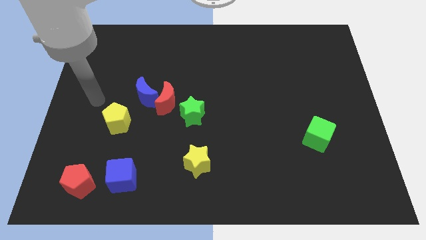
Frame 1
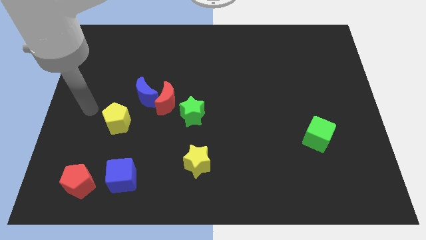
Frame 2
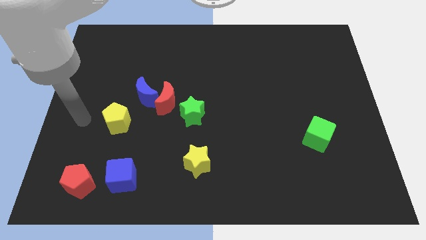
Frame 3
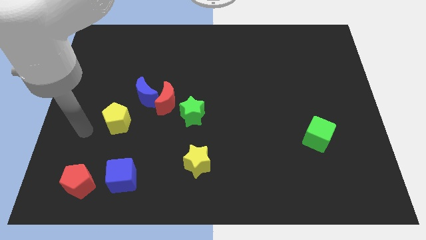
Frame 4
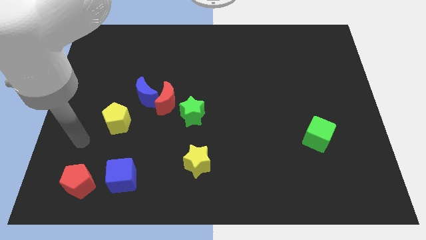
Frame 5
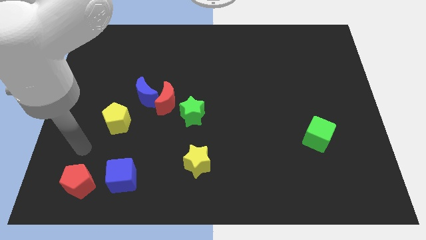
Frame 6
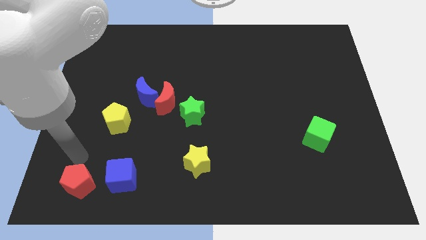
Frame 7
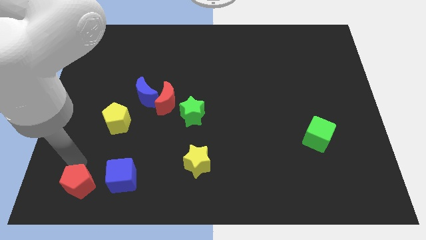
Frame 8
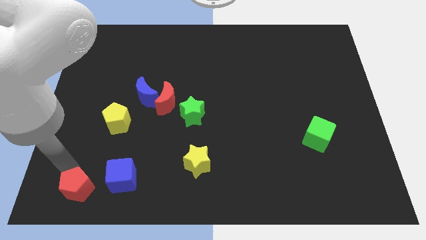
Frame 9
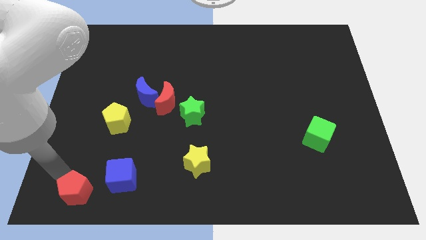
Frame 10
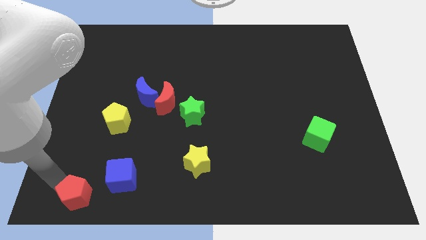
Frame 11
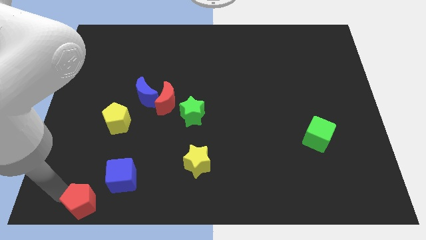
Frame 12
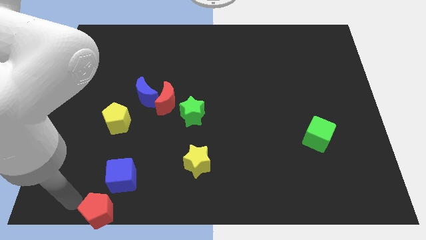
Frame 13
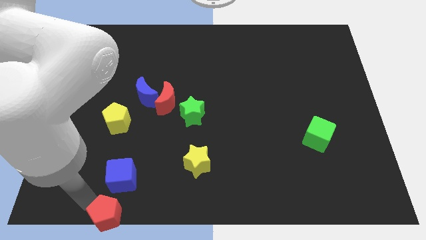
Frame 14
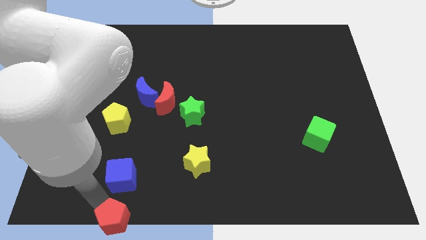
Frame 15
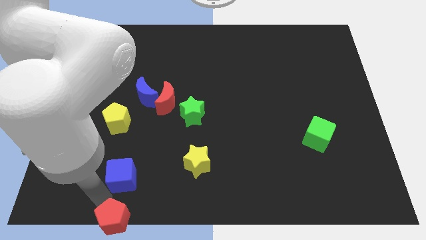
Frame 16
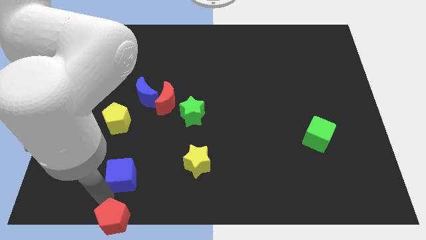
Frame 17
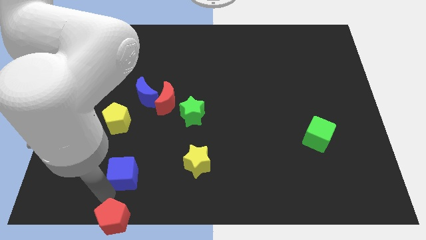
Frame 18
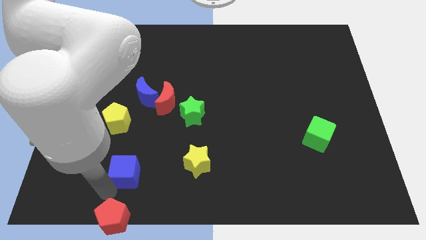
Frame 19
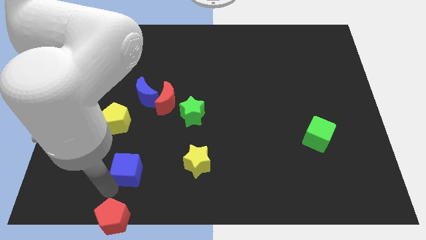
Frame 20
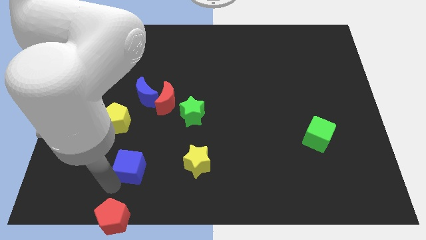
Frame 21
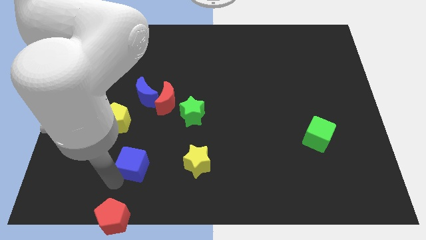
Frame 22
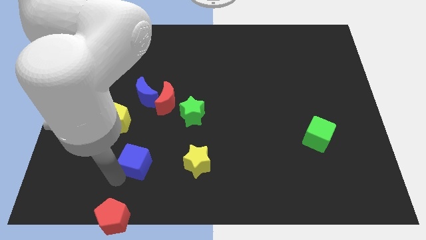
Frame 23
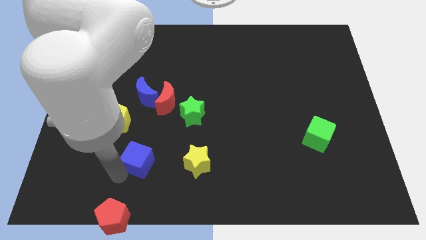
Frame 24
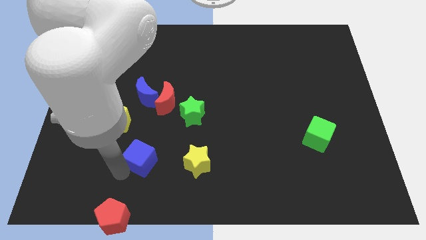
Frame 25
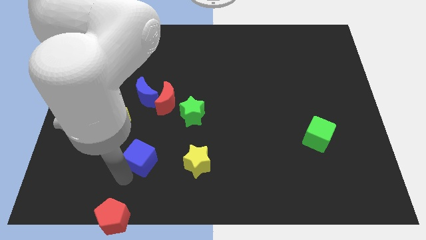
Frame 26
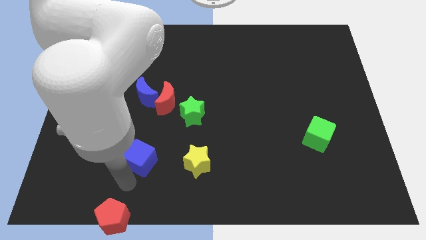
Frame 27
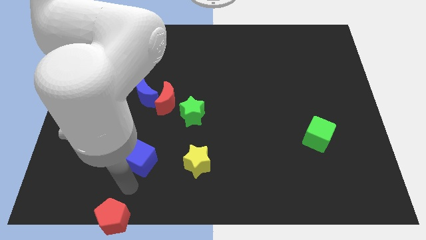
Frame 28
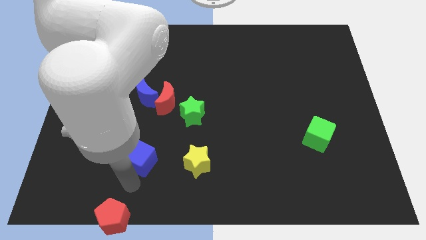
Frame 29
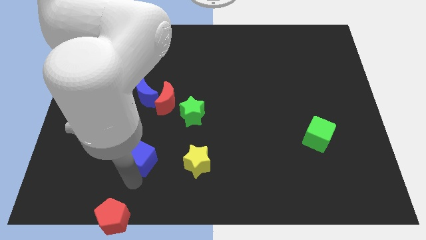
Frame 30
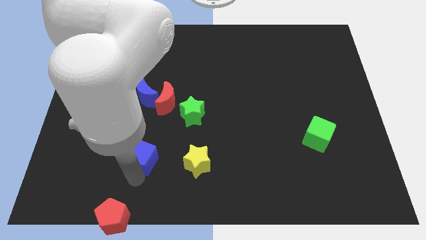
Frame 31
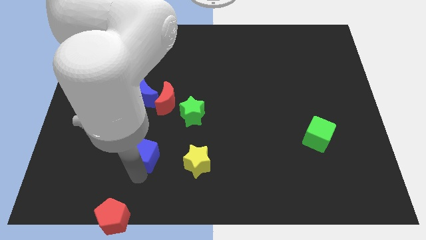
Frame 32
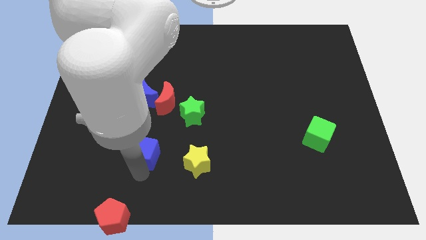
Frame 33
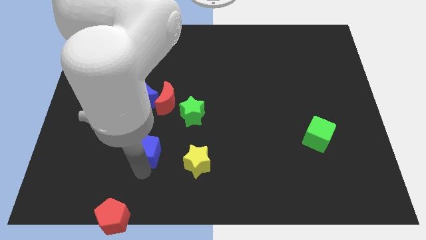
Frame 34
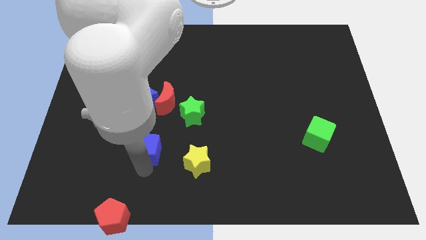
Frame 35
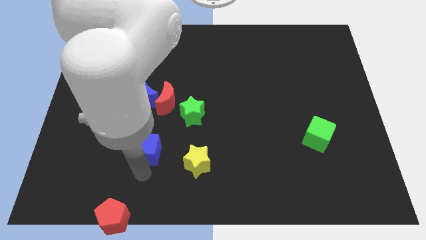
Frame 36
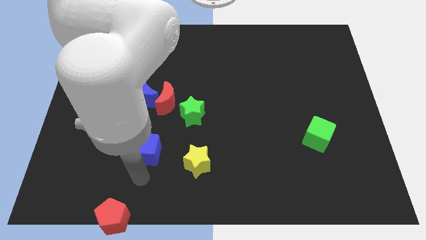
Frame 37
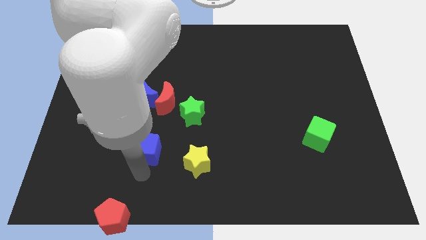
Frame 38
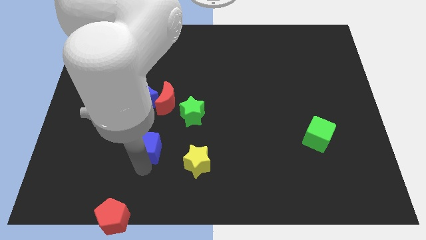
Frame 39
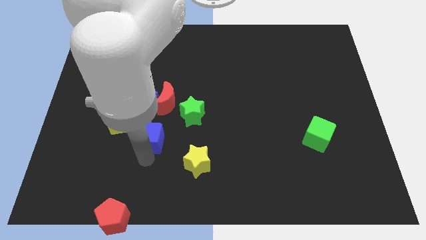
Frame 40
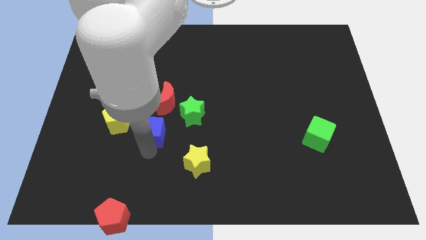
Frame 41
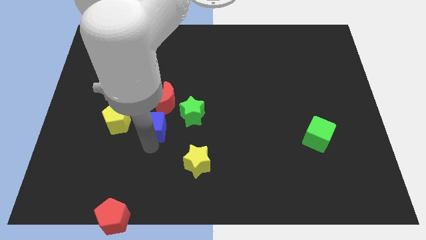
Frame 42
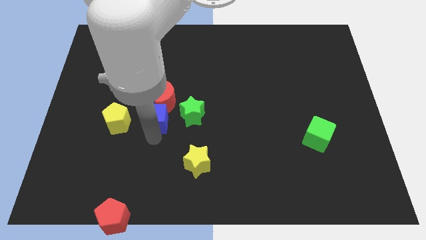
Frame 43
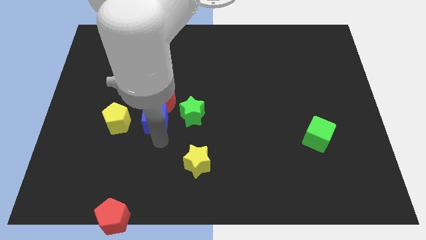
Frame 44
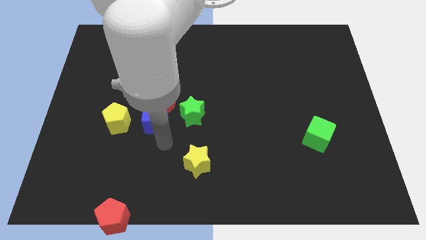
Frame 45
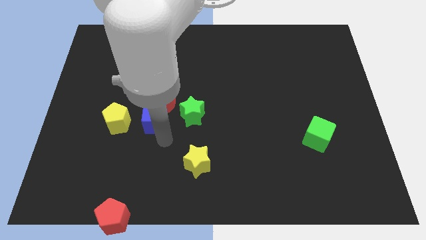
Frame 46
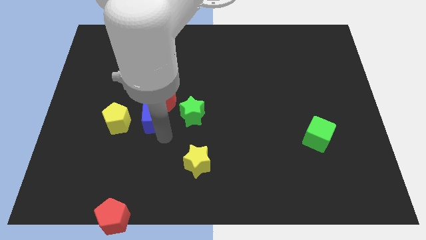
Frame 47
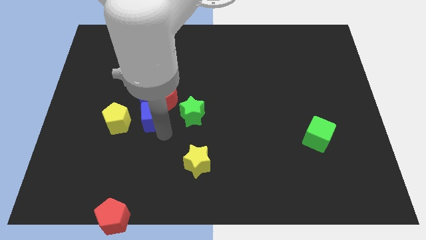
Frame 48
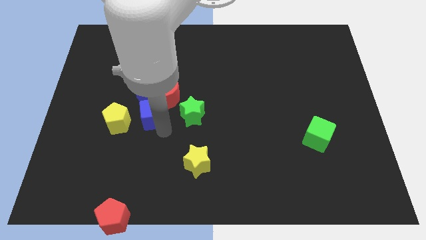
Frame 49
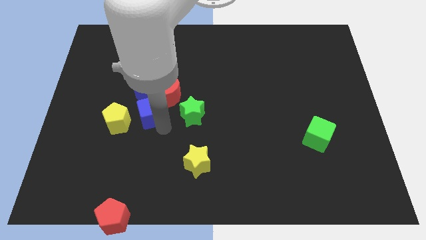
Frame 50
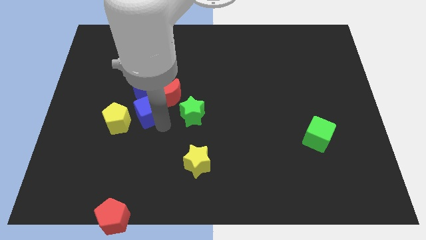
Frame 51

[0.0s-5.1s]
put the blue cube close to the blue moon

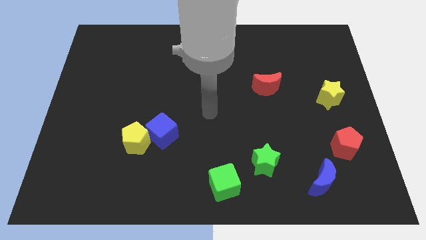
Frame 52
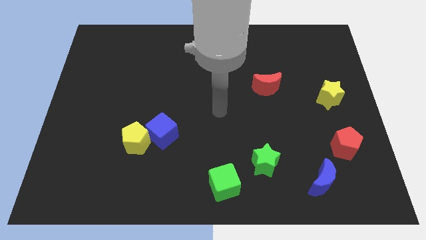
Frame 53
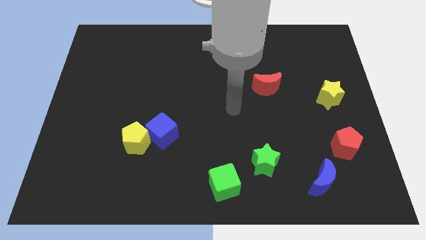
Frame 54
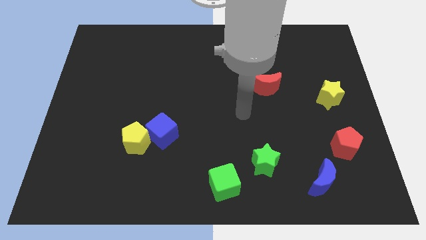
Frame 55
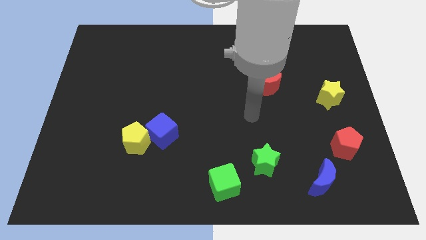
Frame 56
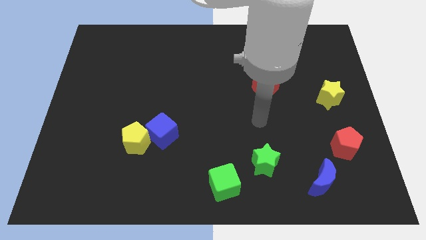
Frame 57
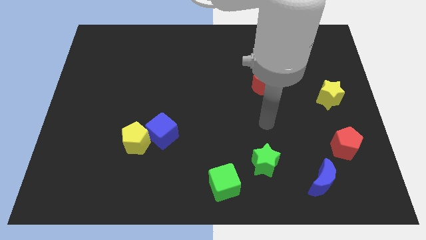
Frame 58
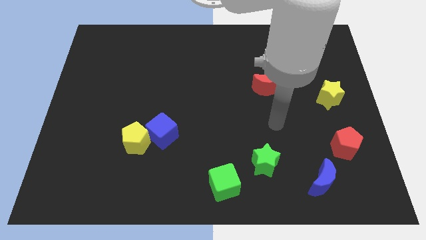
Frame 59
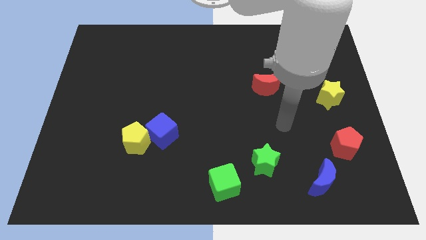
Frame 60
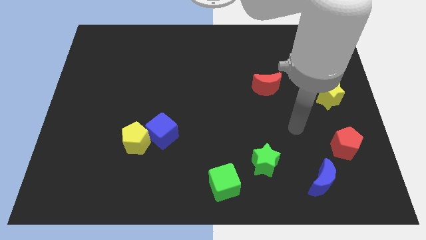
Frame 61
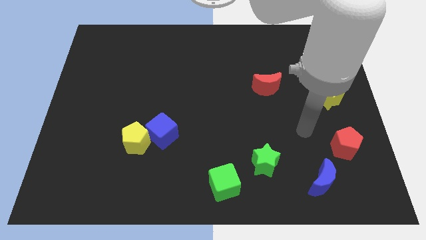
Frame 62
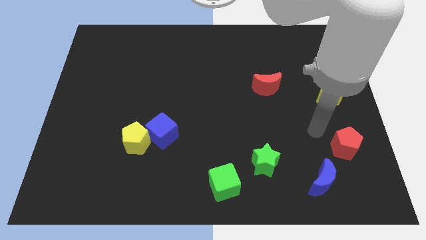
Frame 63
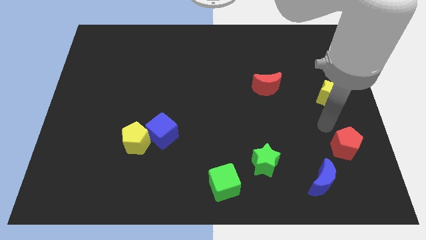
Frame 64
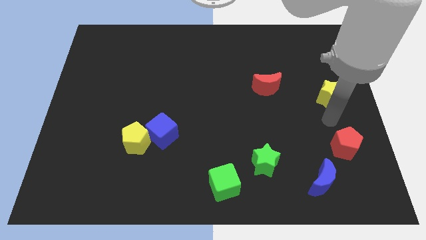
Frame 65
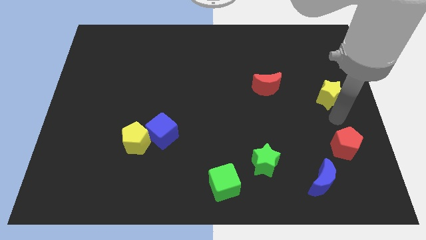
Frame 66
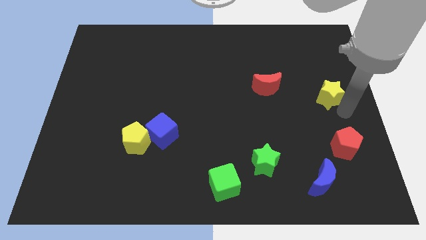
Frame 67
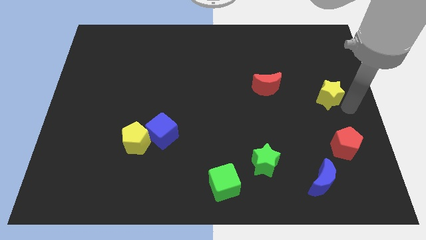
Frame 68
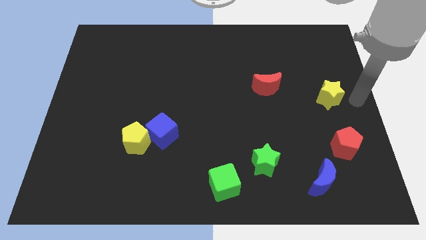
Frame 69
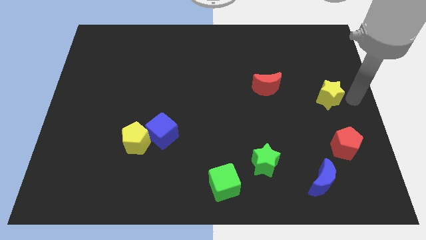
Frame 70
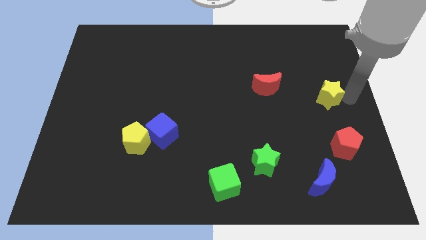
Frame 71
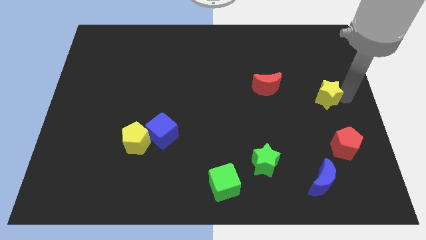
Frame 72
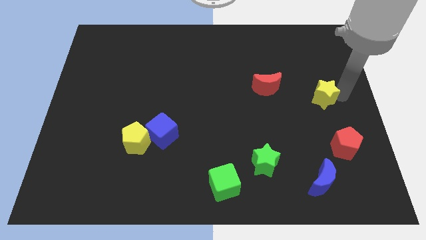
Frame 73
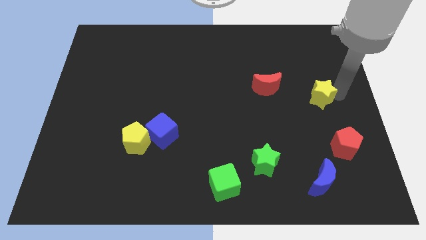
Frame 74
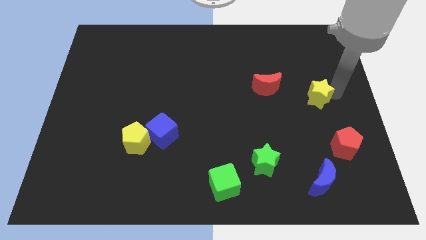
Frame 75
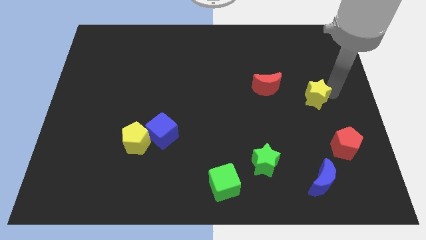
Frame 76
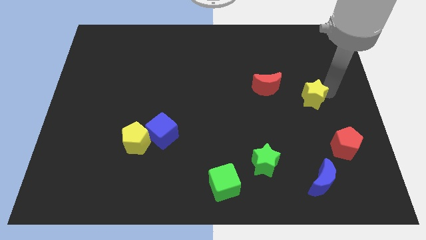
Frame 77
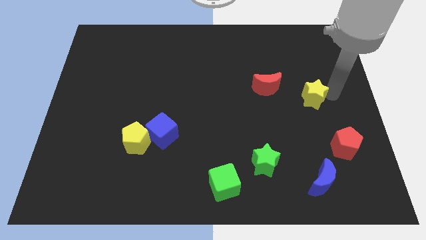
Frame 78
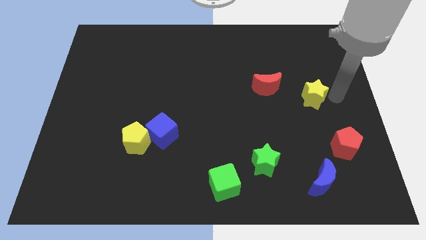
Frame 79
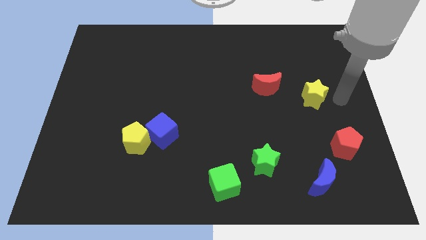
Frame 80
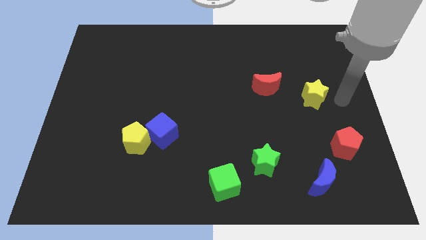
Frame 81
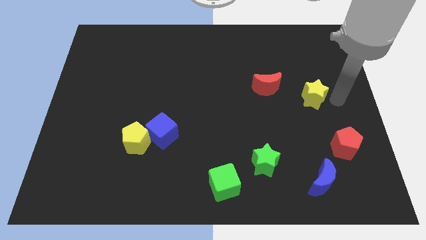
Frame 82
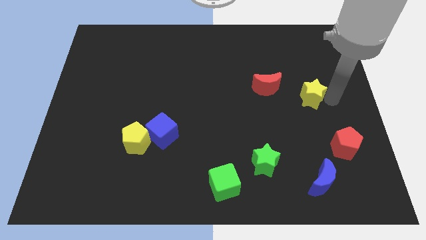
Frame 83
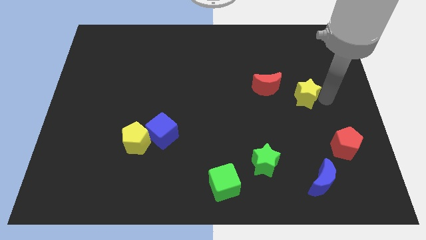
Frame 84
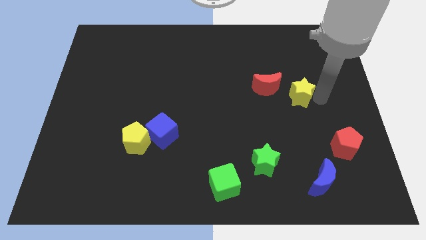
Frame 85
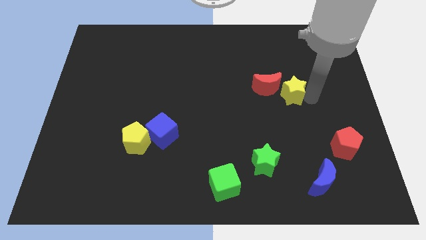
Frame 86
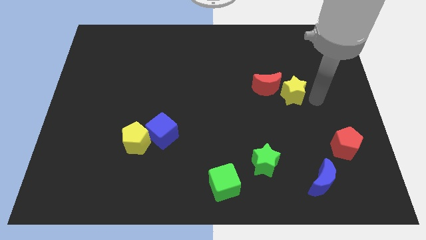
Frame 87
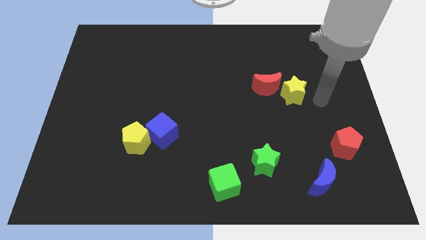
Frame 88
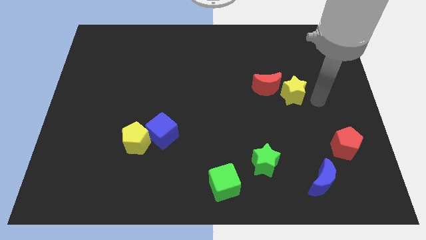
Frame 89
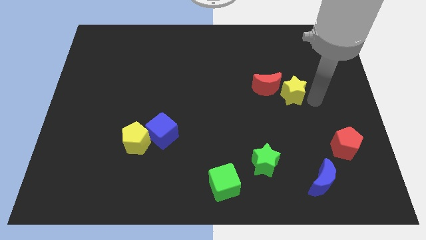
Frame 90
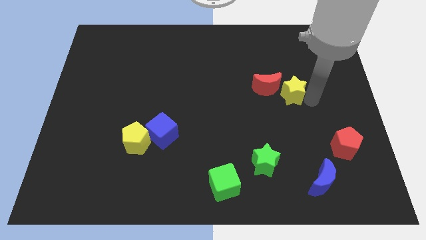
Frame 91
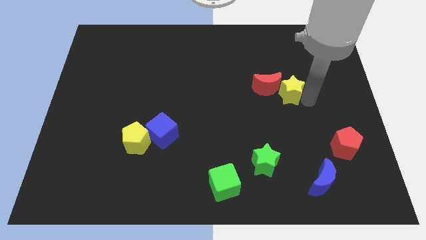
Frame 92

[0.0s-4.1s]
put the yellow star close to the red moon
